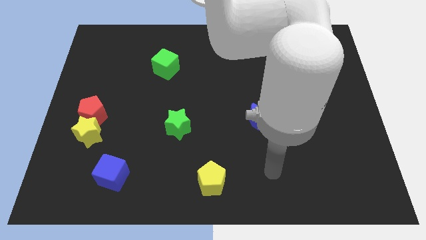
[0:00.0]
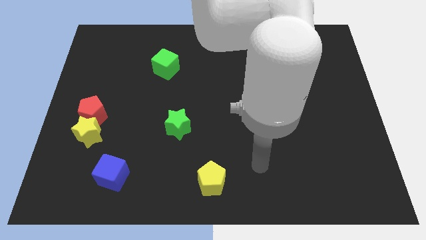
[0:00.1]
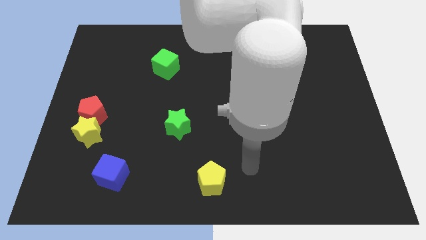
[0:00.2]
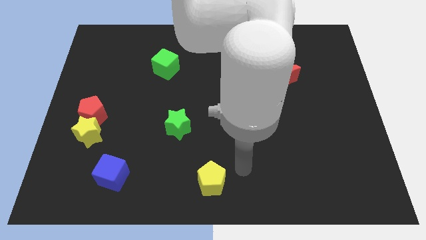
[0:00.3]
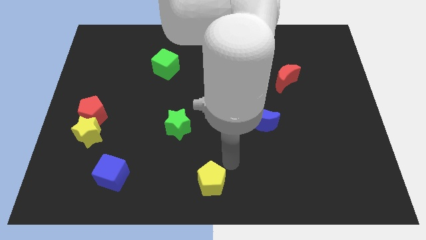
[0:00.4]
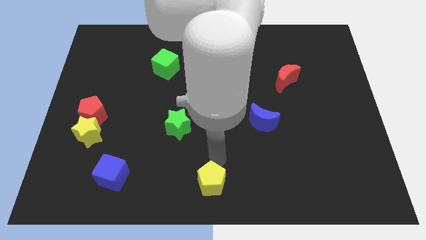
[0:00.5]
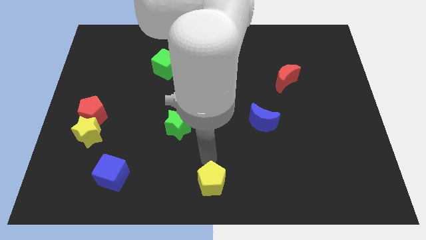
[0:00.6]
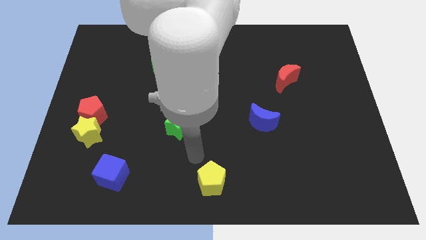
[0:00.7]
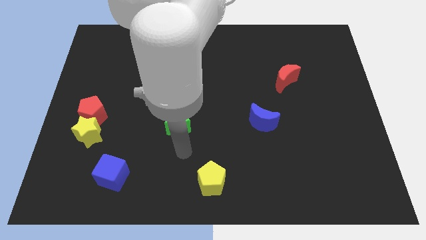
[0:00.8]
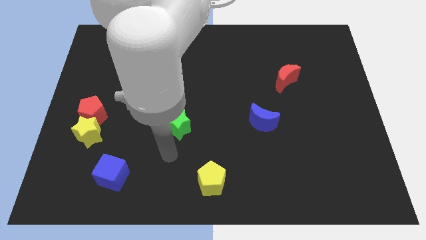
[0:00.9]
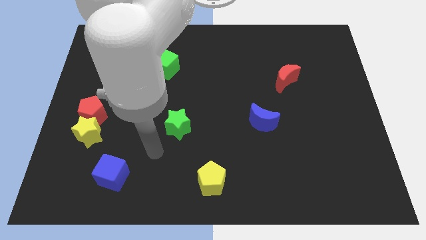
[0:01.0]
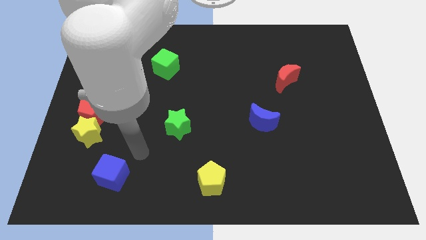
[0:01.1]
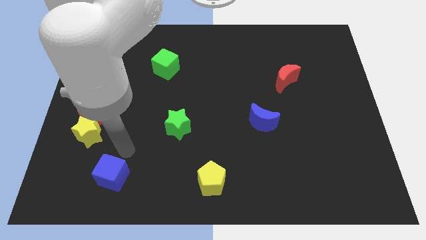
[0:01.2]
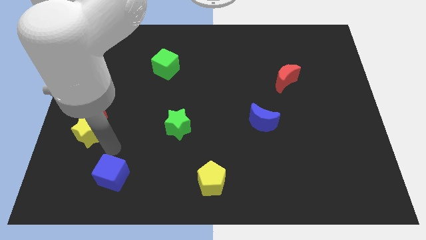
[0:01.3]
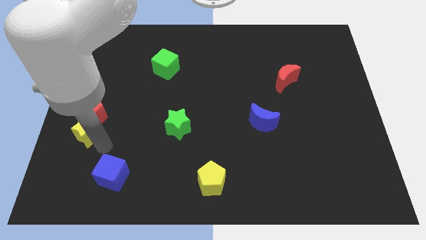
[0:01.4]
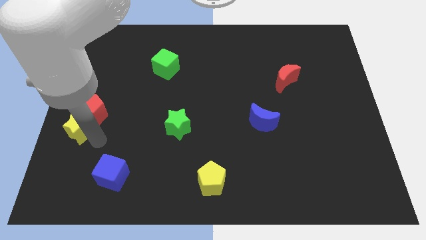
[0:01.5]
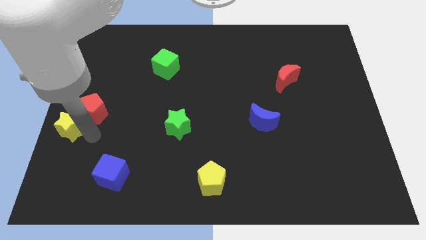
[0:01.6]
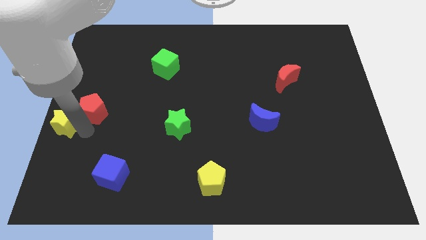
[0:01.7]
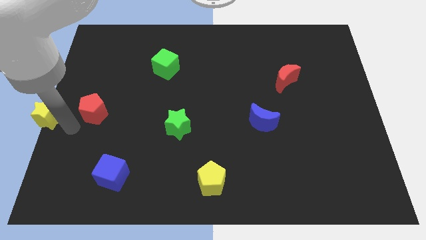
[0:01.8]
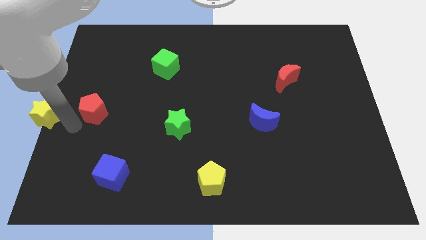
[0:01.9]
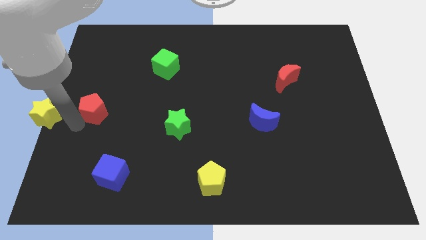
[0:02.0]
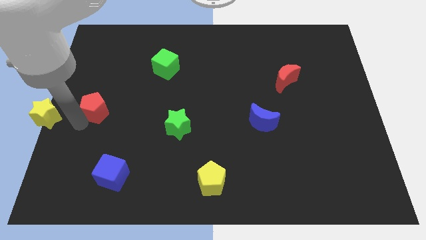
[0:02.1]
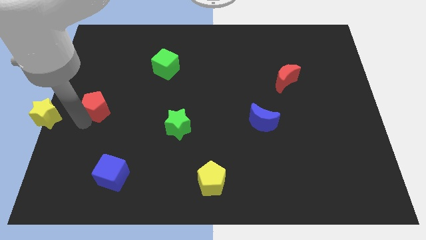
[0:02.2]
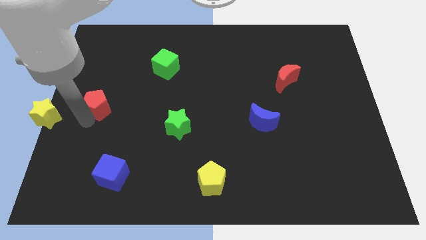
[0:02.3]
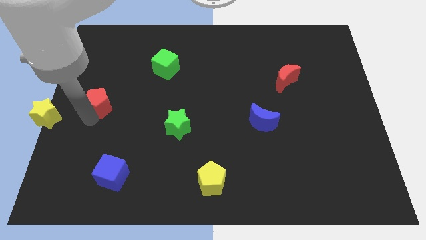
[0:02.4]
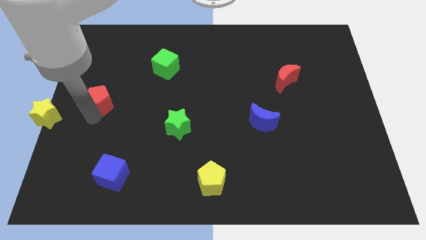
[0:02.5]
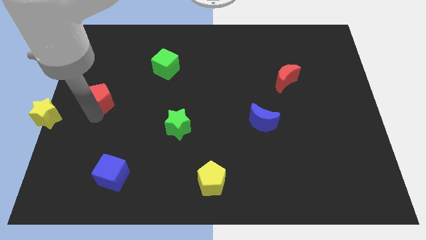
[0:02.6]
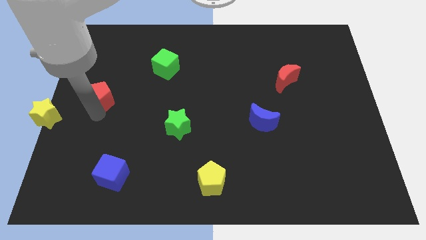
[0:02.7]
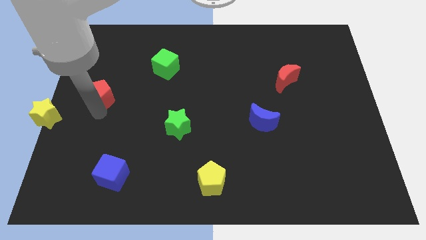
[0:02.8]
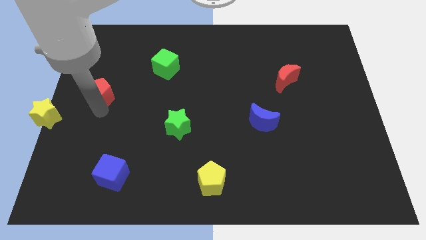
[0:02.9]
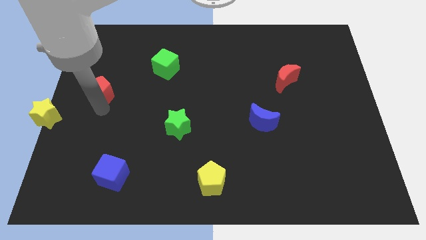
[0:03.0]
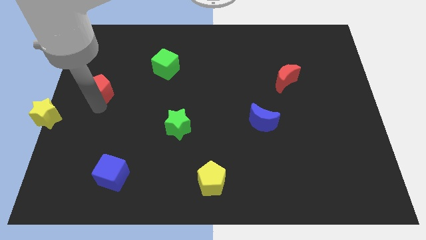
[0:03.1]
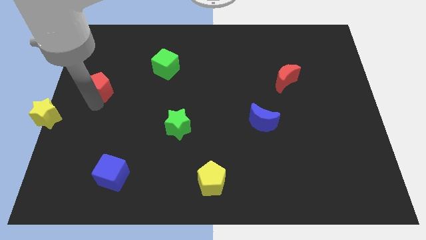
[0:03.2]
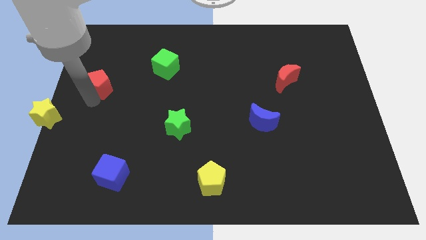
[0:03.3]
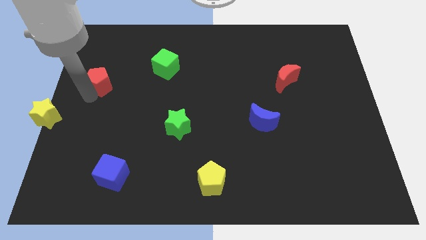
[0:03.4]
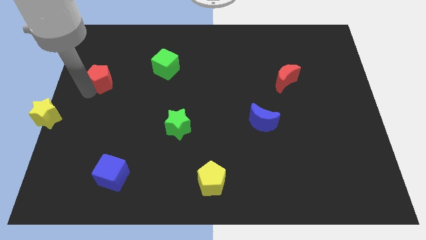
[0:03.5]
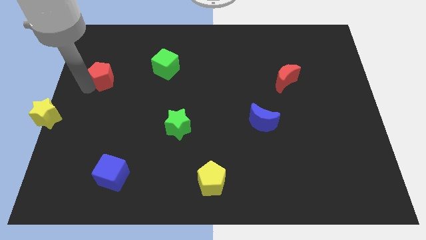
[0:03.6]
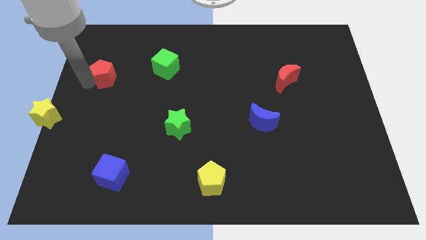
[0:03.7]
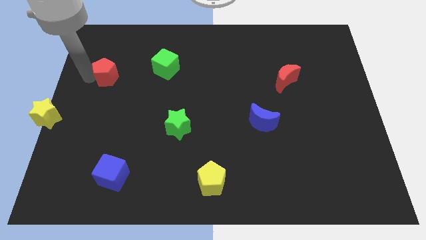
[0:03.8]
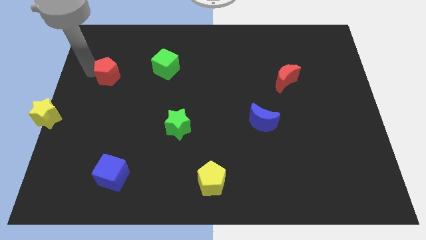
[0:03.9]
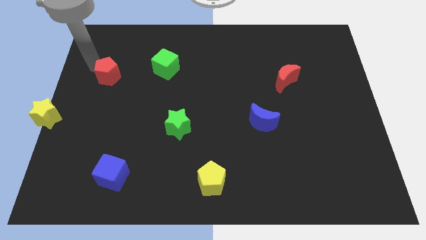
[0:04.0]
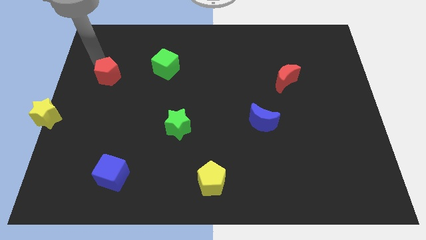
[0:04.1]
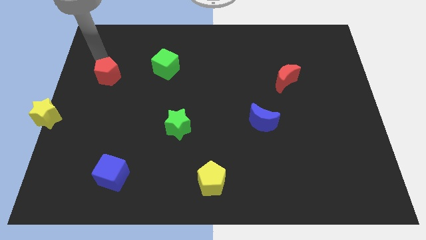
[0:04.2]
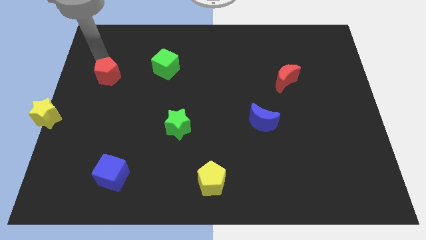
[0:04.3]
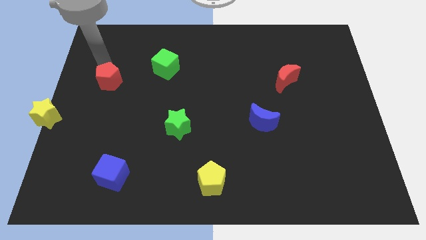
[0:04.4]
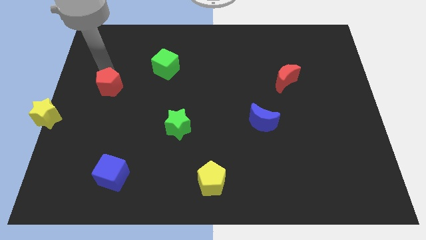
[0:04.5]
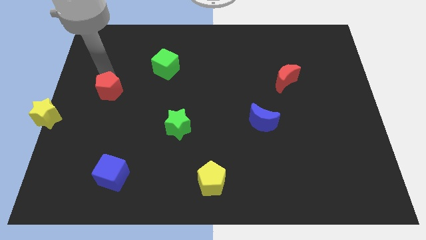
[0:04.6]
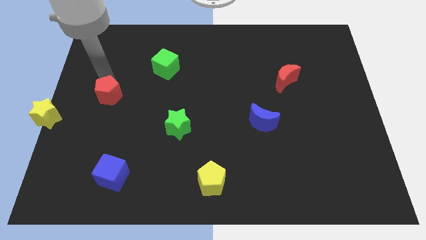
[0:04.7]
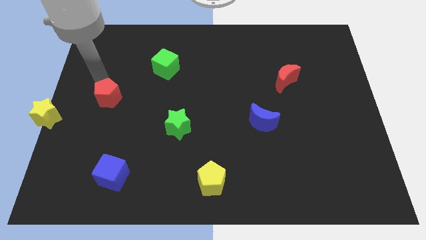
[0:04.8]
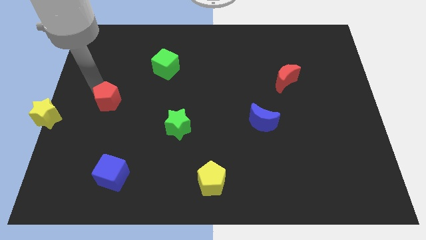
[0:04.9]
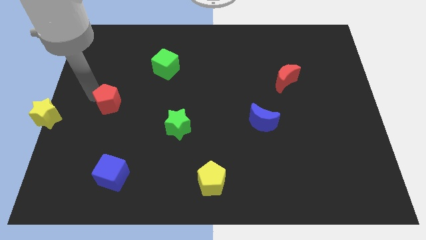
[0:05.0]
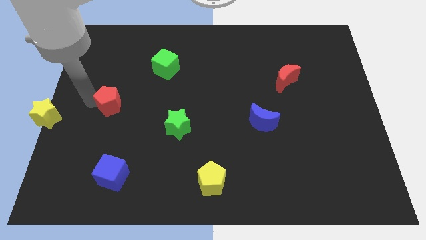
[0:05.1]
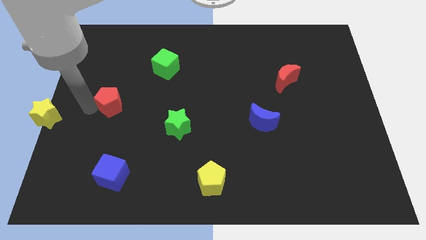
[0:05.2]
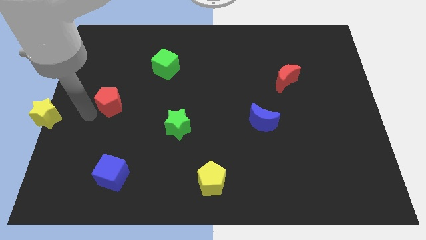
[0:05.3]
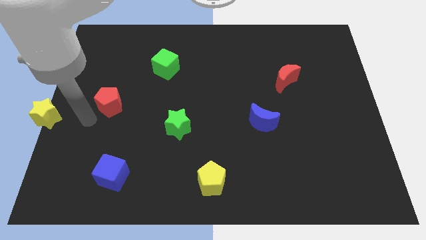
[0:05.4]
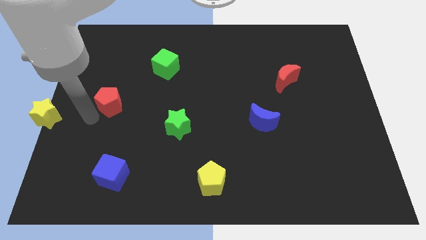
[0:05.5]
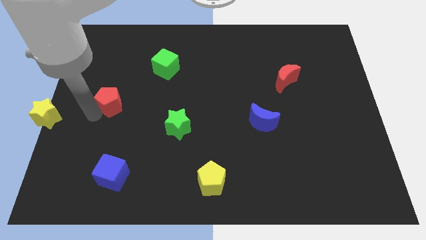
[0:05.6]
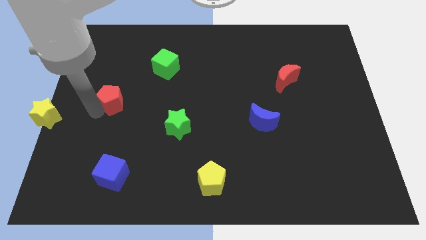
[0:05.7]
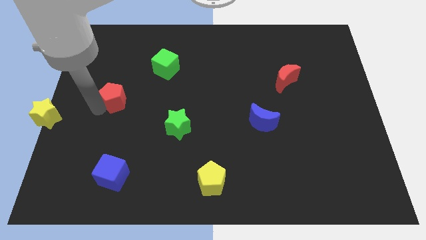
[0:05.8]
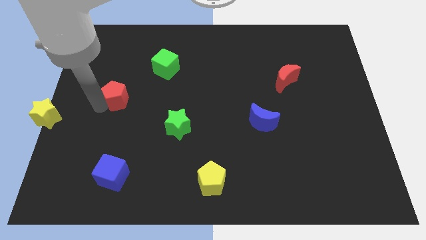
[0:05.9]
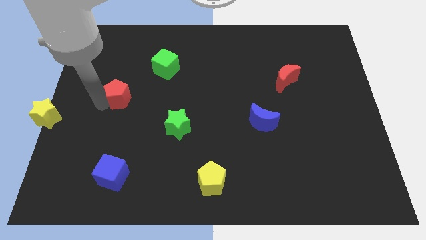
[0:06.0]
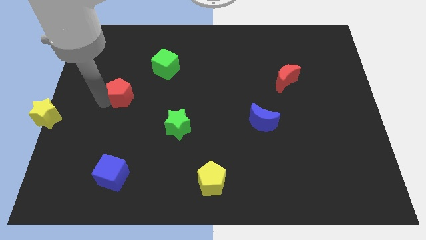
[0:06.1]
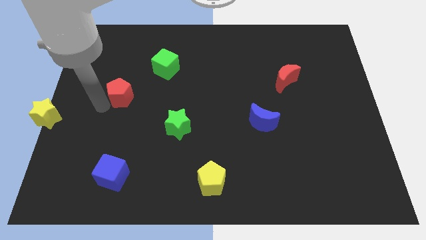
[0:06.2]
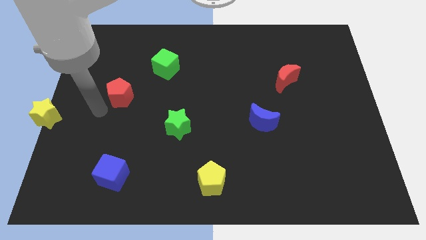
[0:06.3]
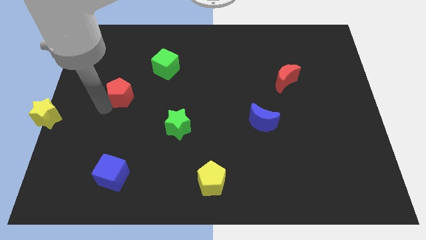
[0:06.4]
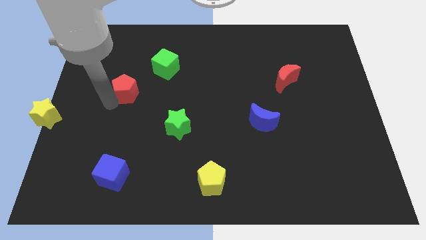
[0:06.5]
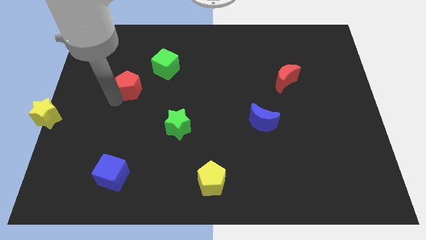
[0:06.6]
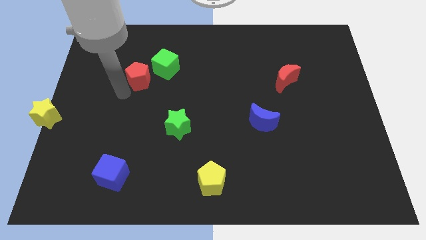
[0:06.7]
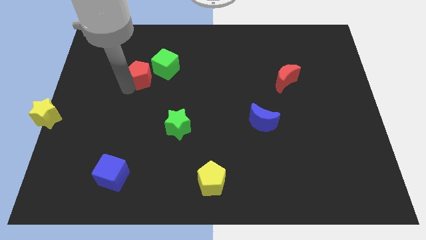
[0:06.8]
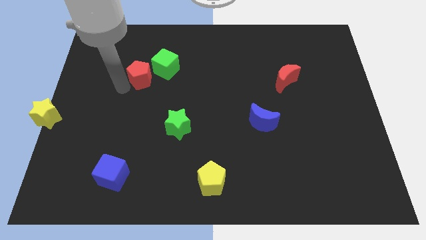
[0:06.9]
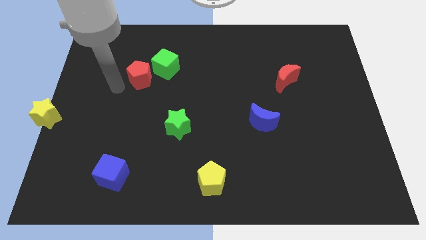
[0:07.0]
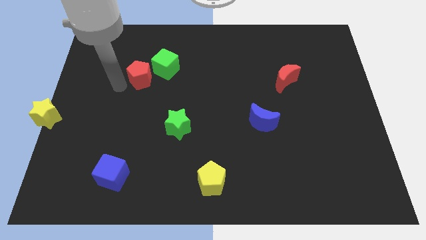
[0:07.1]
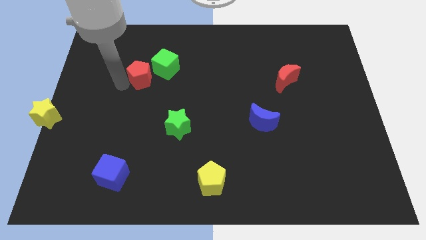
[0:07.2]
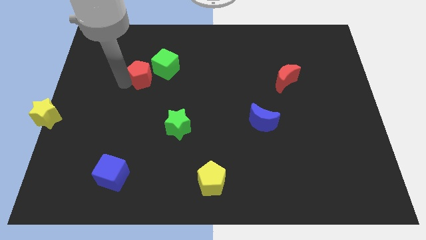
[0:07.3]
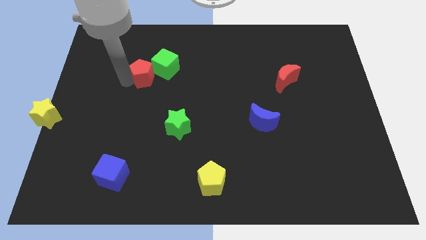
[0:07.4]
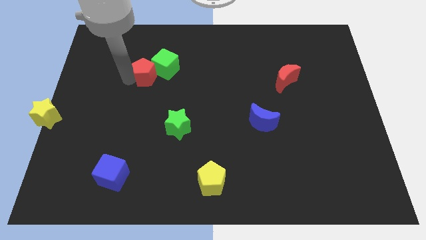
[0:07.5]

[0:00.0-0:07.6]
move the red pentagon towards the green cube
